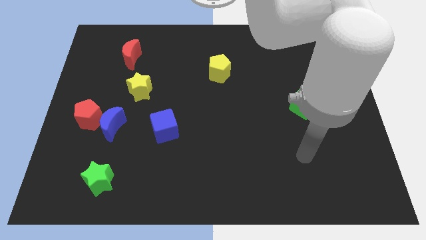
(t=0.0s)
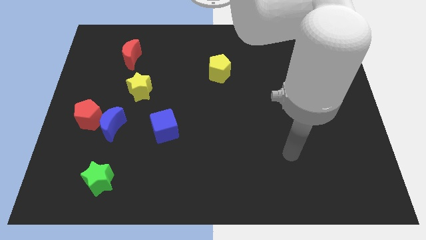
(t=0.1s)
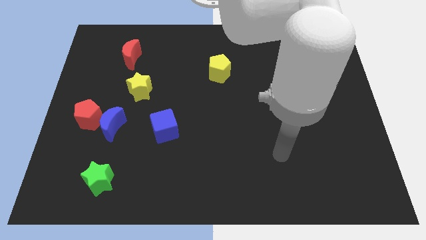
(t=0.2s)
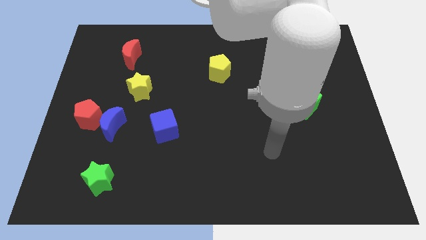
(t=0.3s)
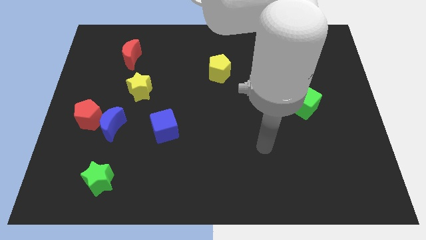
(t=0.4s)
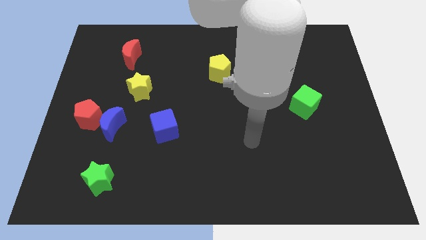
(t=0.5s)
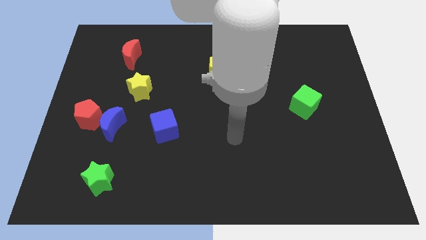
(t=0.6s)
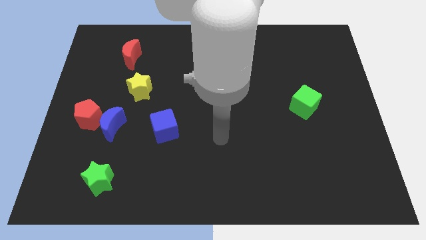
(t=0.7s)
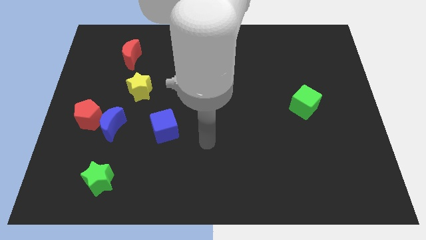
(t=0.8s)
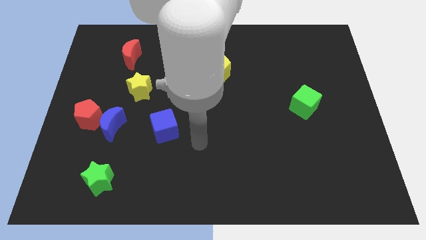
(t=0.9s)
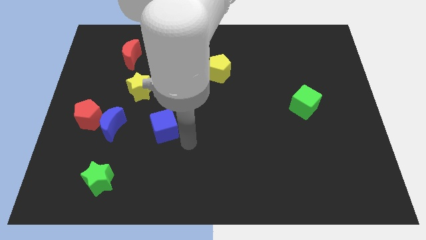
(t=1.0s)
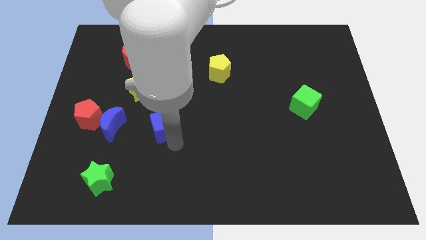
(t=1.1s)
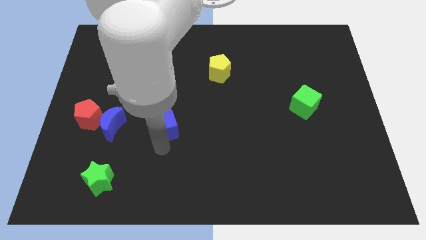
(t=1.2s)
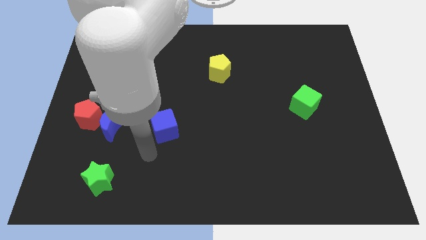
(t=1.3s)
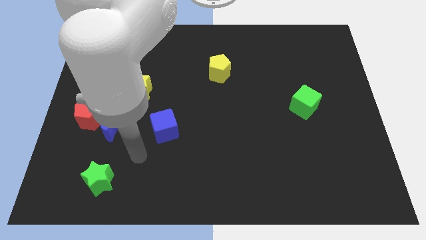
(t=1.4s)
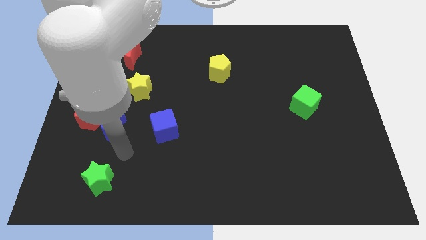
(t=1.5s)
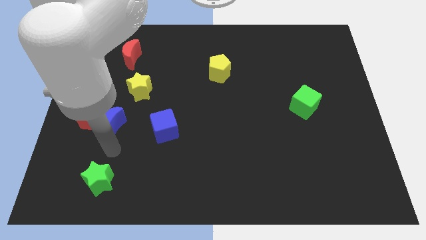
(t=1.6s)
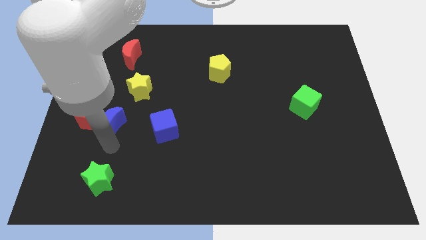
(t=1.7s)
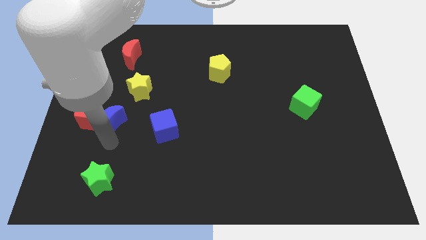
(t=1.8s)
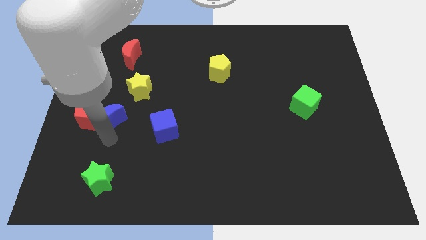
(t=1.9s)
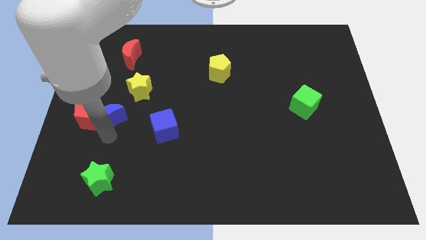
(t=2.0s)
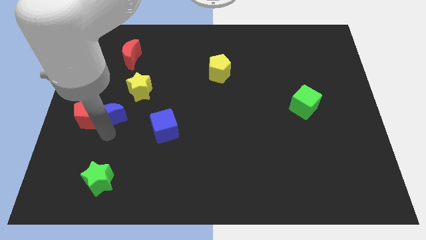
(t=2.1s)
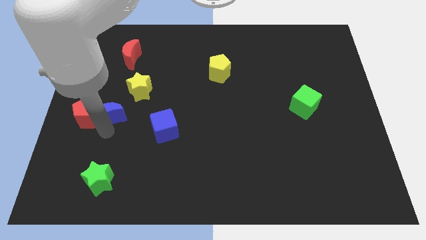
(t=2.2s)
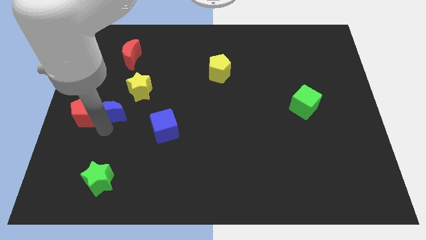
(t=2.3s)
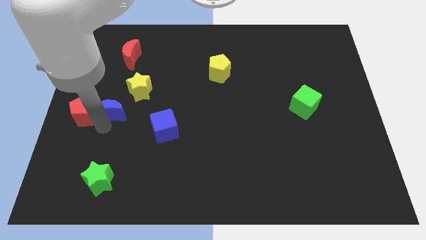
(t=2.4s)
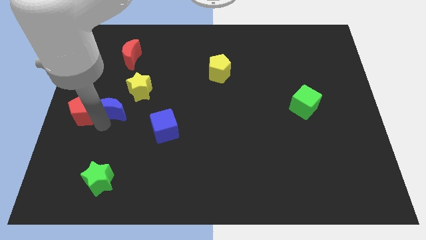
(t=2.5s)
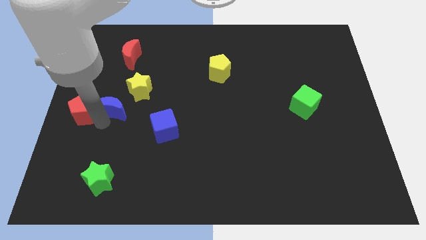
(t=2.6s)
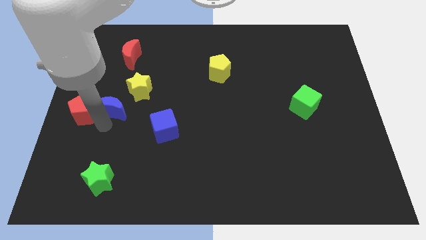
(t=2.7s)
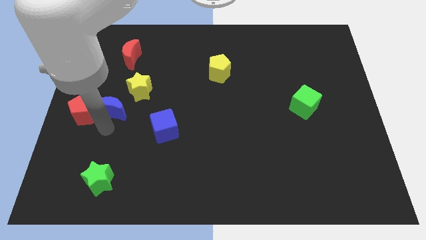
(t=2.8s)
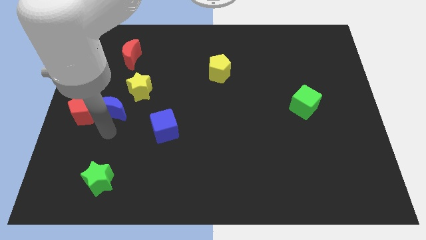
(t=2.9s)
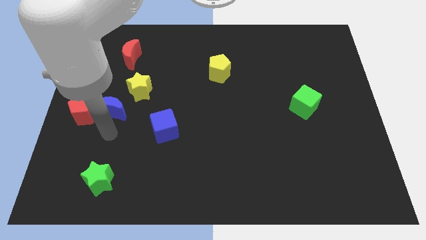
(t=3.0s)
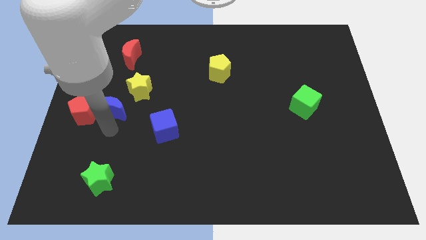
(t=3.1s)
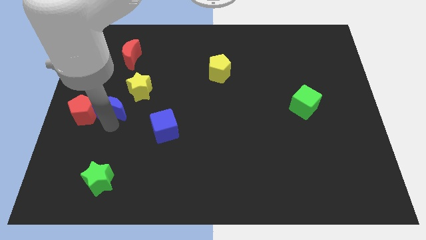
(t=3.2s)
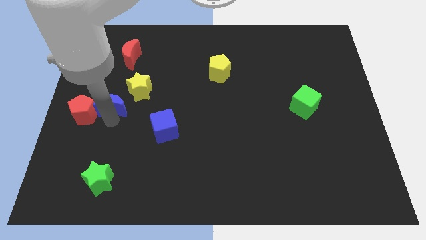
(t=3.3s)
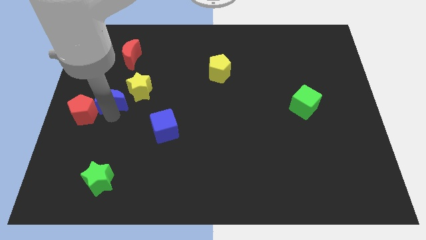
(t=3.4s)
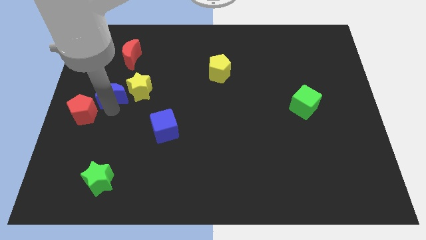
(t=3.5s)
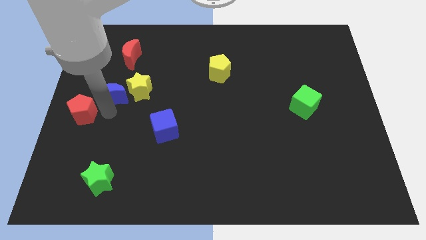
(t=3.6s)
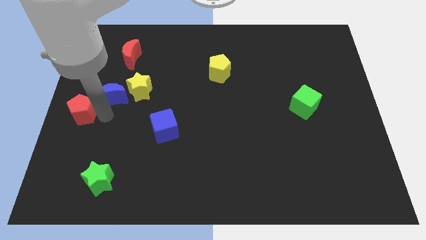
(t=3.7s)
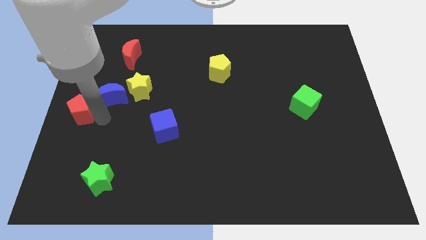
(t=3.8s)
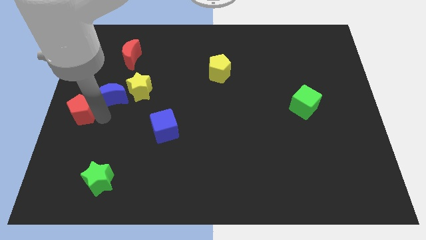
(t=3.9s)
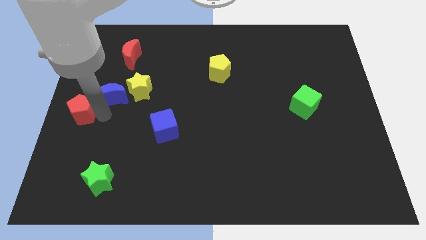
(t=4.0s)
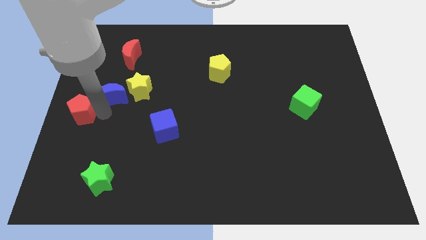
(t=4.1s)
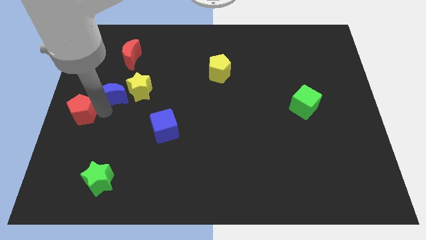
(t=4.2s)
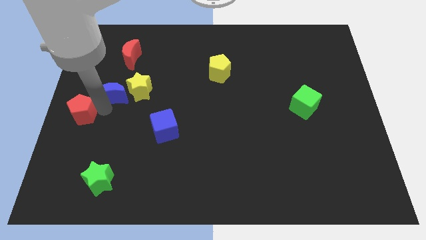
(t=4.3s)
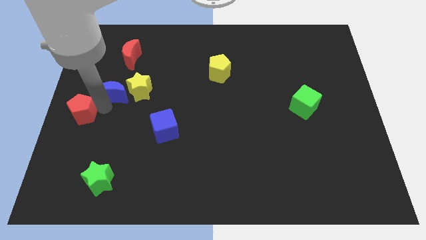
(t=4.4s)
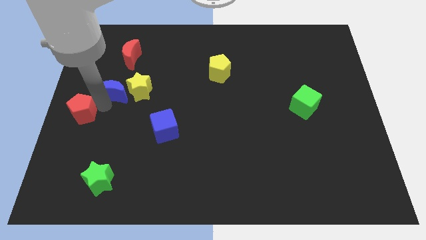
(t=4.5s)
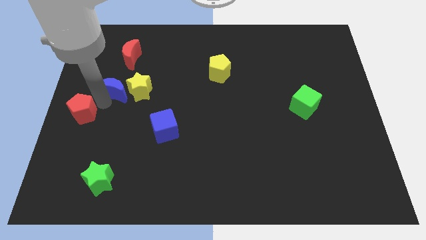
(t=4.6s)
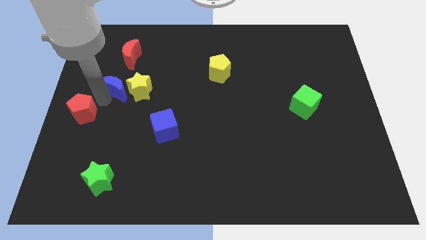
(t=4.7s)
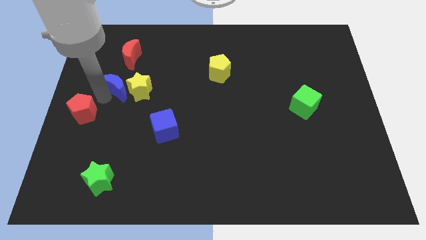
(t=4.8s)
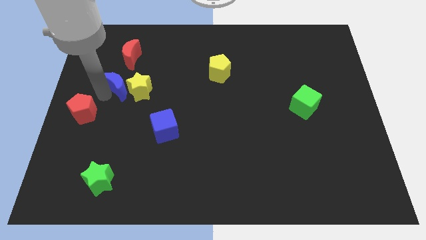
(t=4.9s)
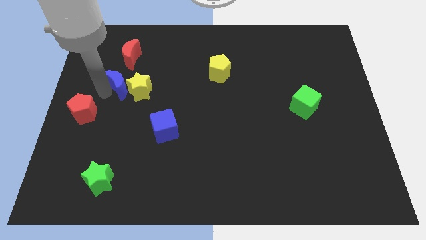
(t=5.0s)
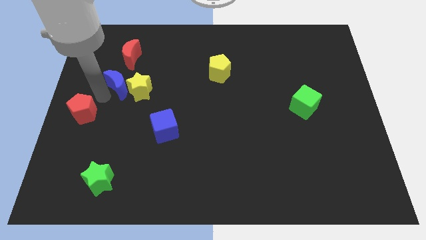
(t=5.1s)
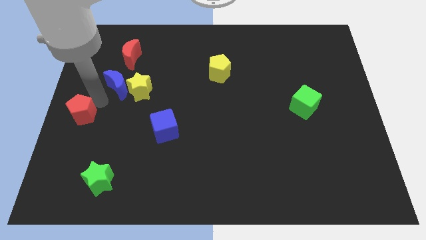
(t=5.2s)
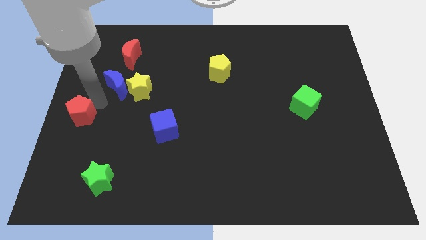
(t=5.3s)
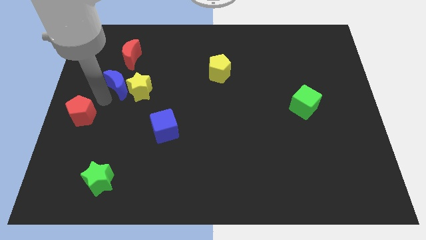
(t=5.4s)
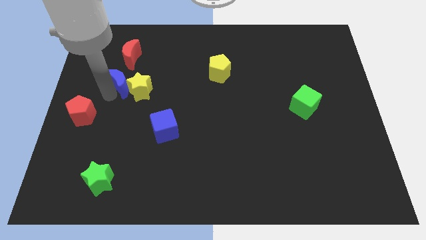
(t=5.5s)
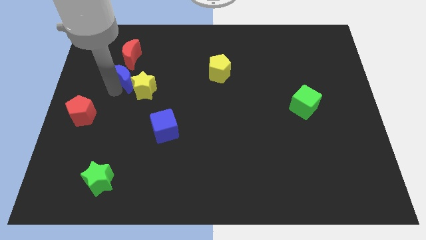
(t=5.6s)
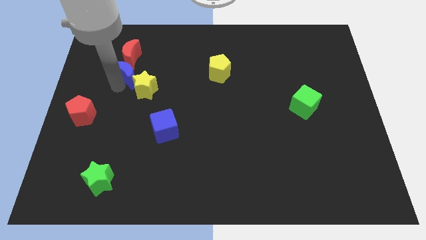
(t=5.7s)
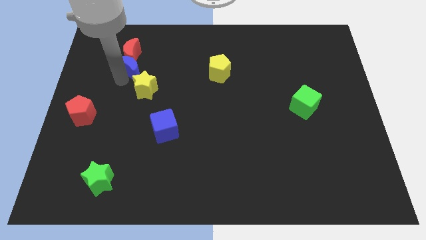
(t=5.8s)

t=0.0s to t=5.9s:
move the blue moon above the yellow star

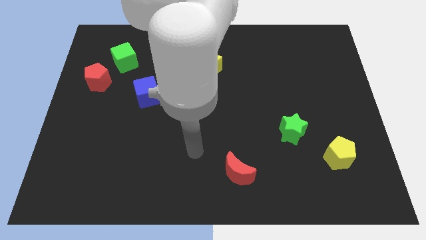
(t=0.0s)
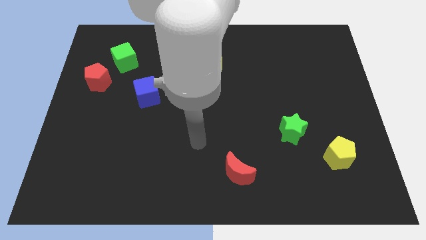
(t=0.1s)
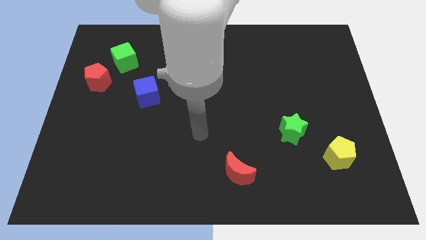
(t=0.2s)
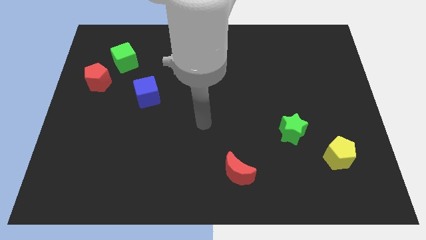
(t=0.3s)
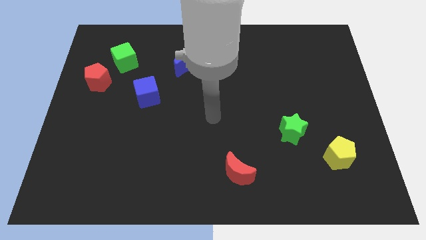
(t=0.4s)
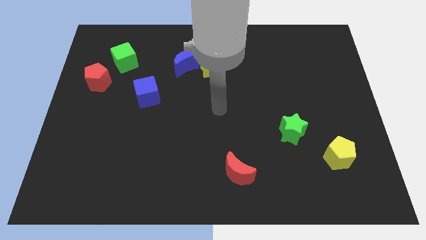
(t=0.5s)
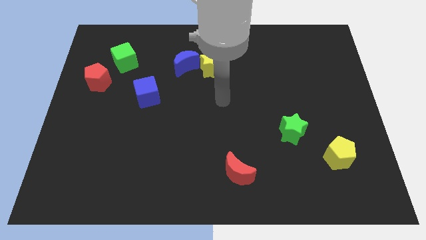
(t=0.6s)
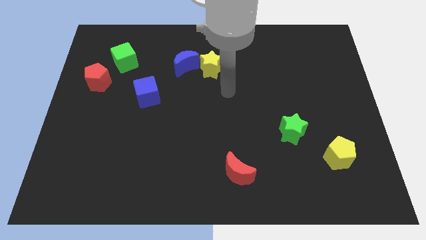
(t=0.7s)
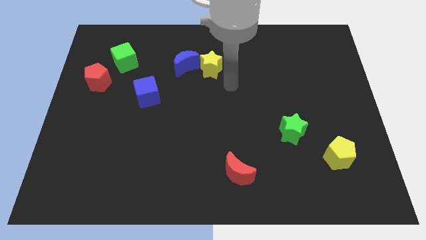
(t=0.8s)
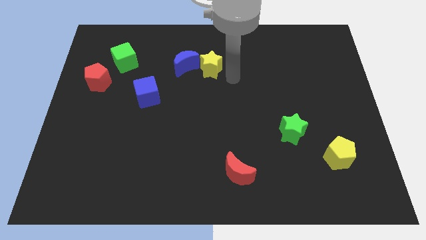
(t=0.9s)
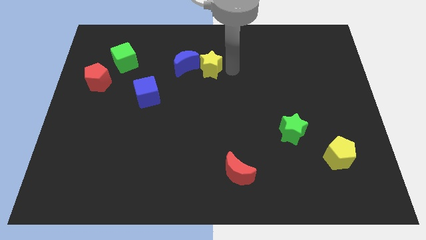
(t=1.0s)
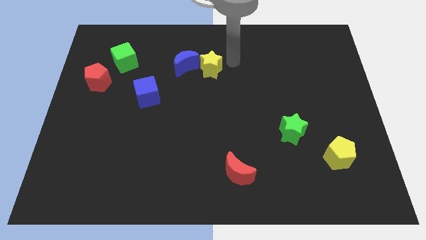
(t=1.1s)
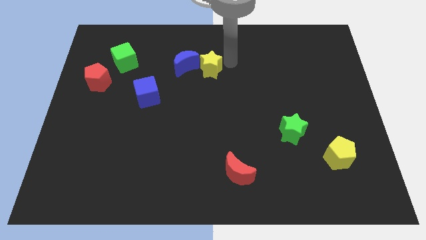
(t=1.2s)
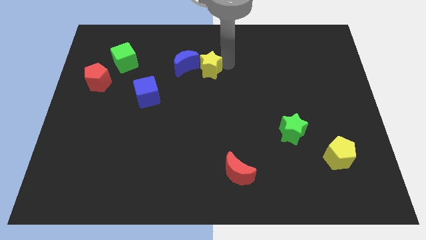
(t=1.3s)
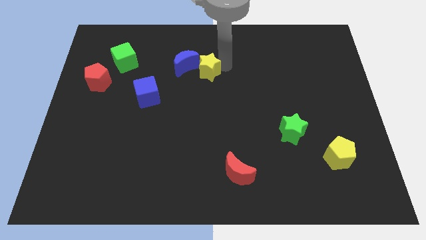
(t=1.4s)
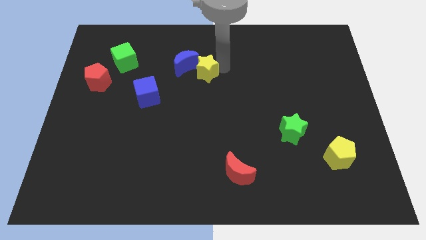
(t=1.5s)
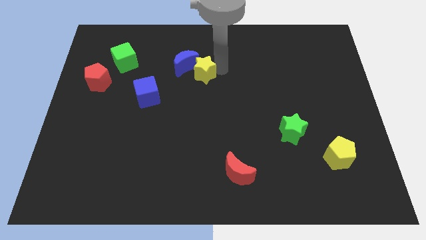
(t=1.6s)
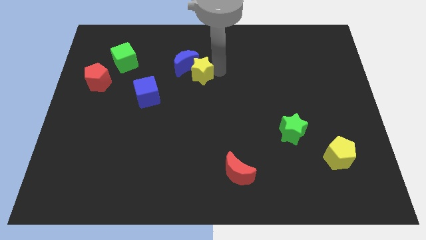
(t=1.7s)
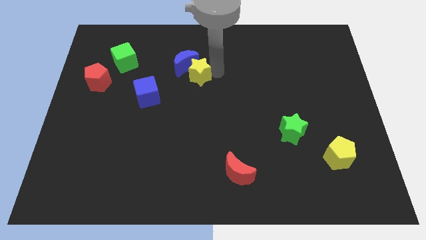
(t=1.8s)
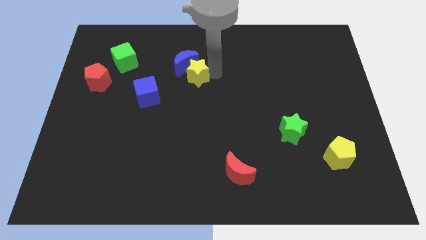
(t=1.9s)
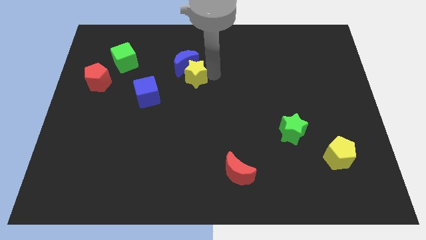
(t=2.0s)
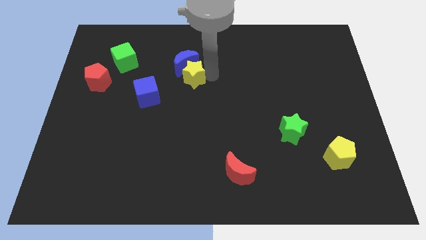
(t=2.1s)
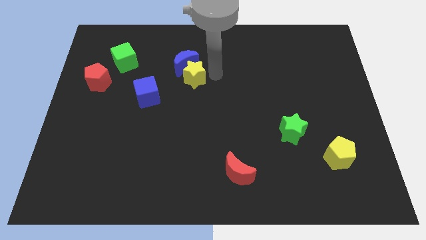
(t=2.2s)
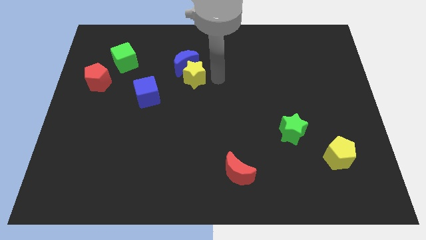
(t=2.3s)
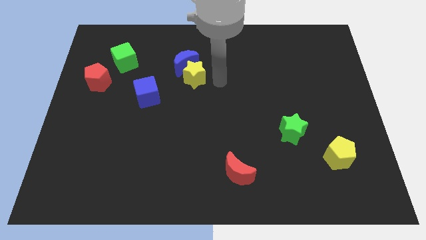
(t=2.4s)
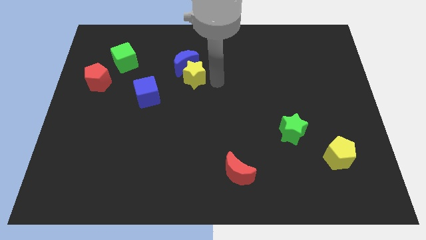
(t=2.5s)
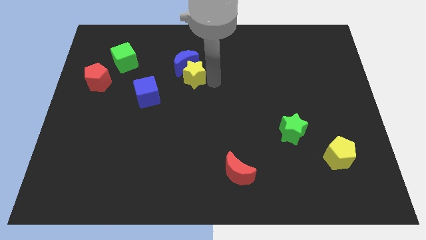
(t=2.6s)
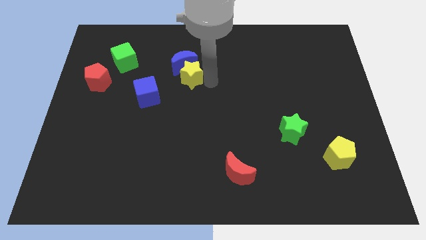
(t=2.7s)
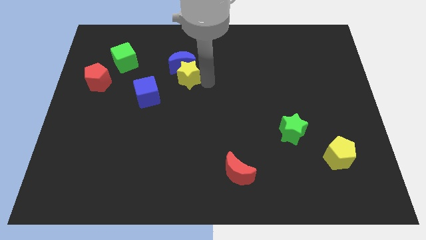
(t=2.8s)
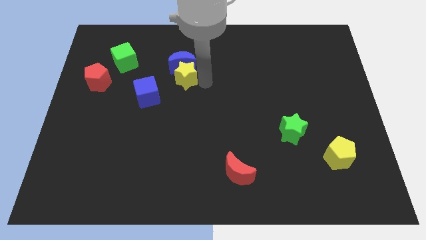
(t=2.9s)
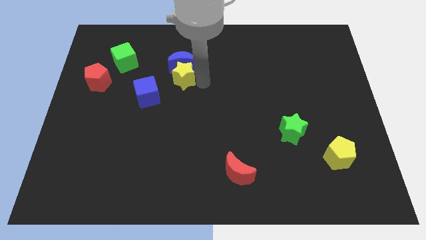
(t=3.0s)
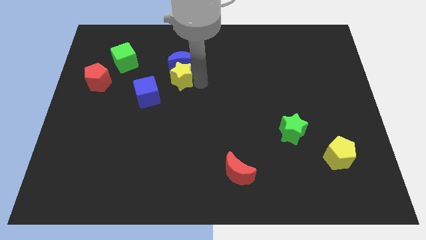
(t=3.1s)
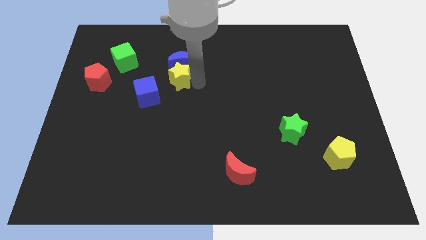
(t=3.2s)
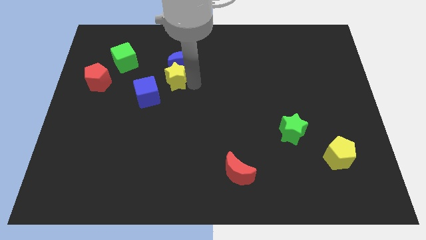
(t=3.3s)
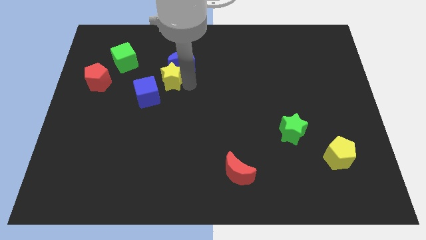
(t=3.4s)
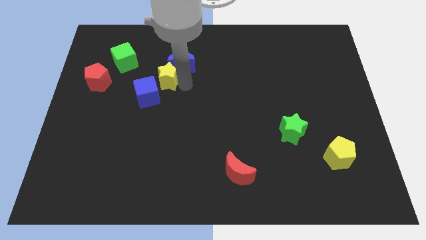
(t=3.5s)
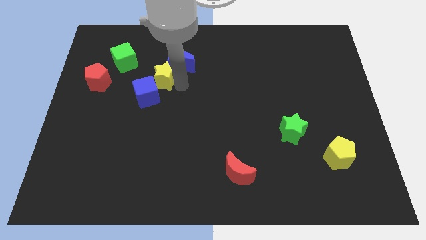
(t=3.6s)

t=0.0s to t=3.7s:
put the yellow star to the left of the blue moon
